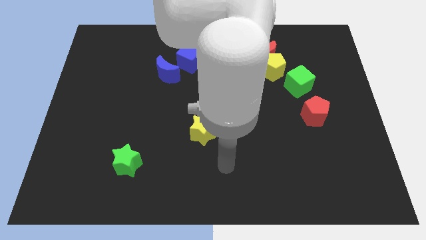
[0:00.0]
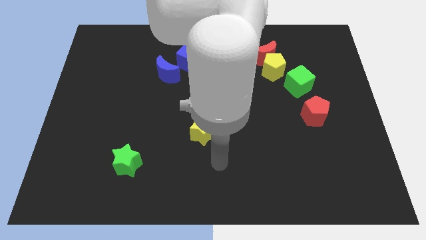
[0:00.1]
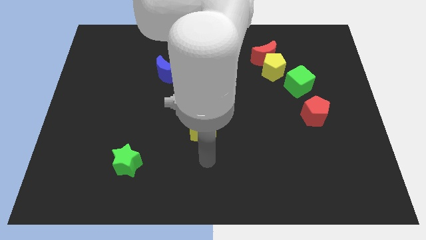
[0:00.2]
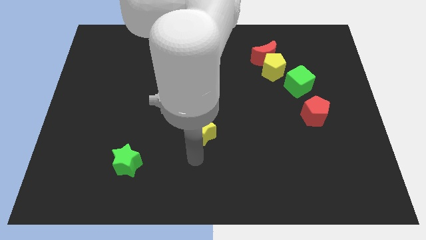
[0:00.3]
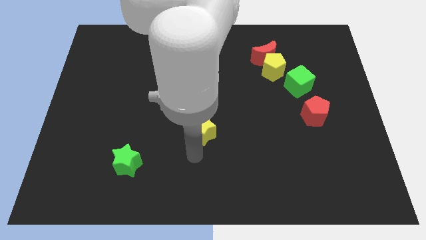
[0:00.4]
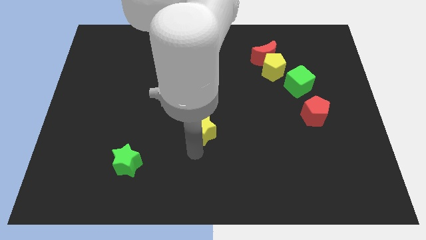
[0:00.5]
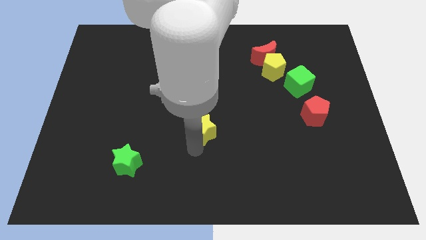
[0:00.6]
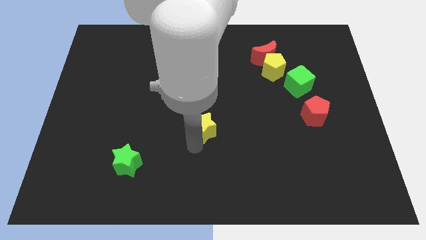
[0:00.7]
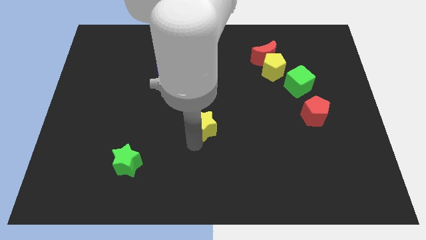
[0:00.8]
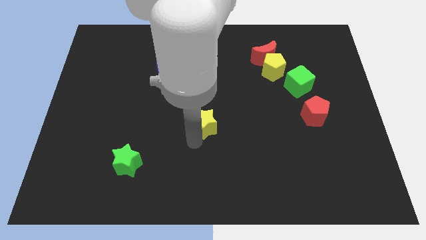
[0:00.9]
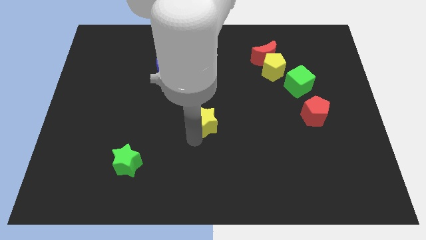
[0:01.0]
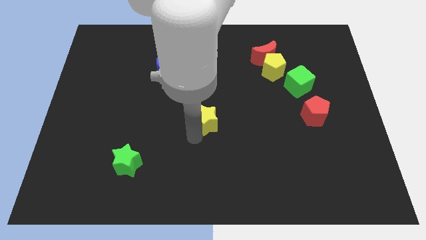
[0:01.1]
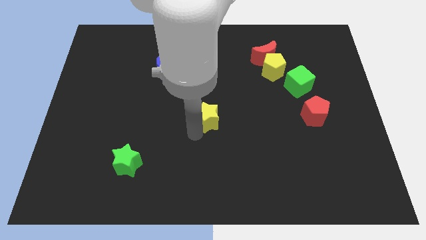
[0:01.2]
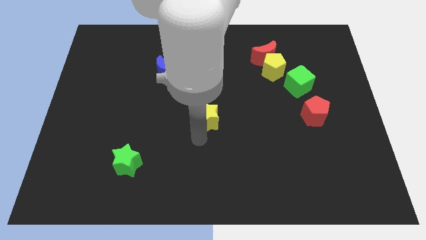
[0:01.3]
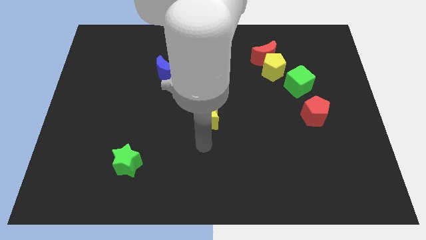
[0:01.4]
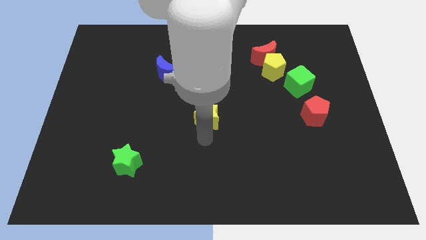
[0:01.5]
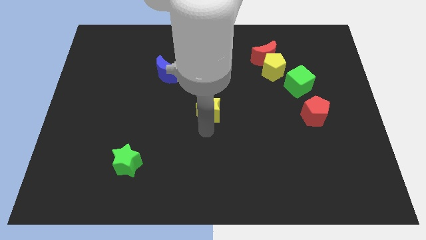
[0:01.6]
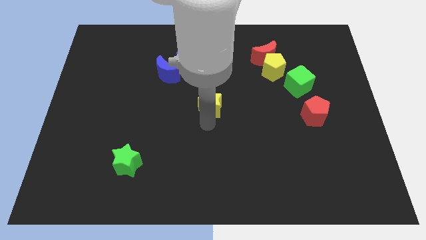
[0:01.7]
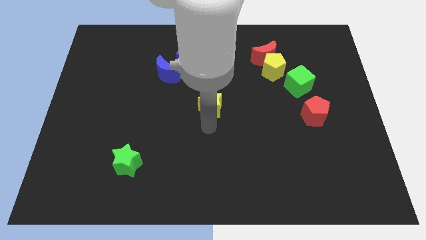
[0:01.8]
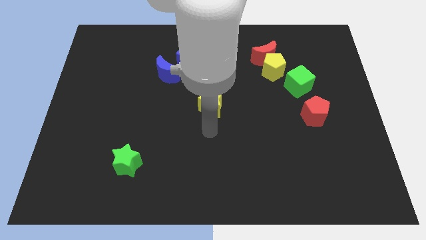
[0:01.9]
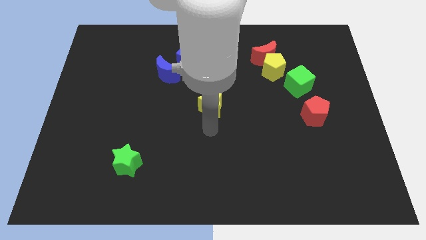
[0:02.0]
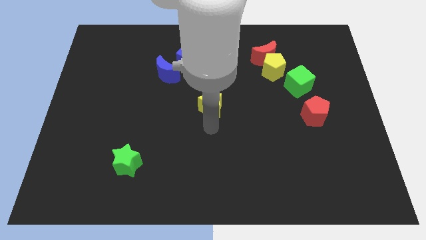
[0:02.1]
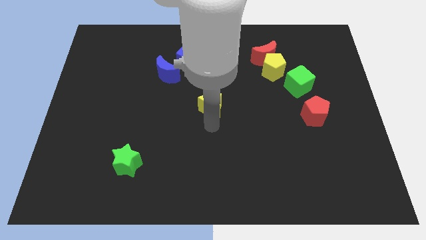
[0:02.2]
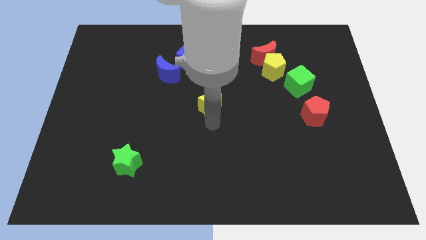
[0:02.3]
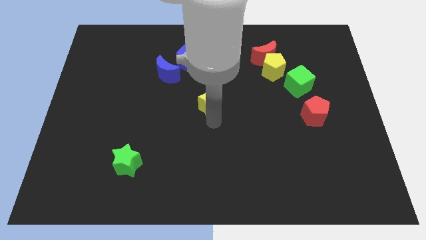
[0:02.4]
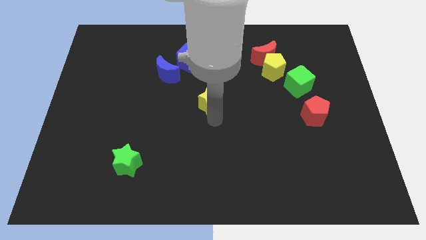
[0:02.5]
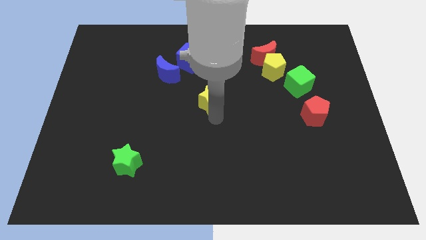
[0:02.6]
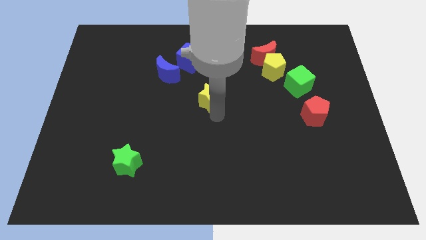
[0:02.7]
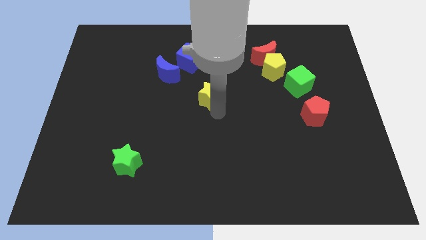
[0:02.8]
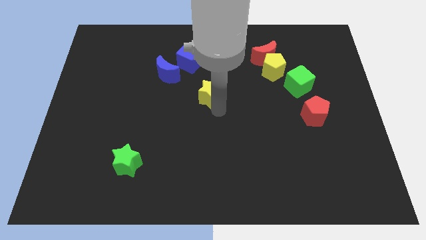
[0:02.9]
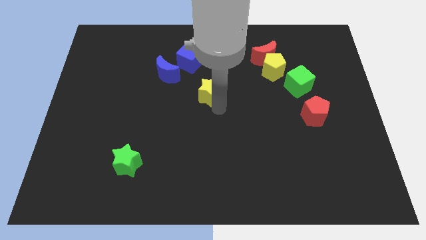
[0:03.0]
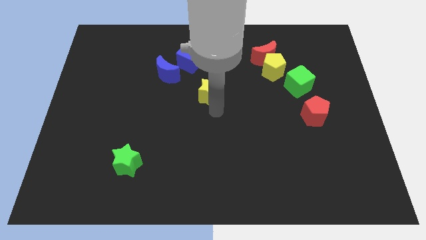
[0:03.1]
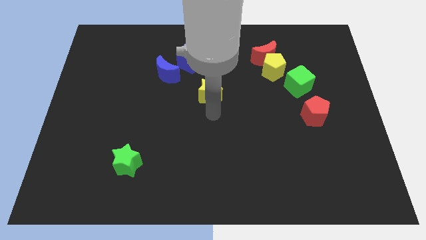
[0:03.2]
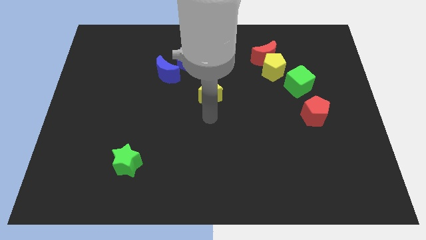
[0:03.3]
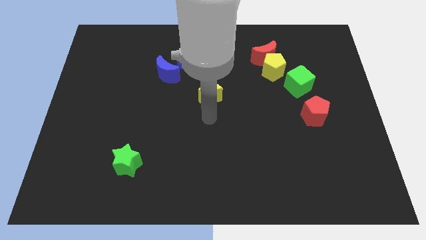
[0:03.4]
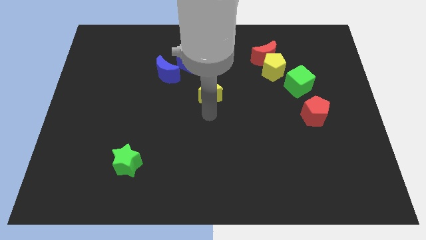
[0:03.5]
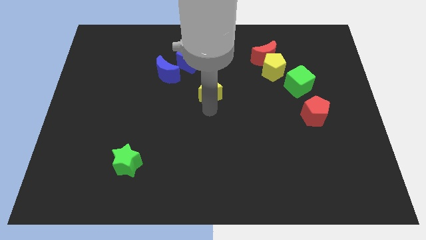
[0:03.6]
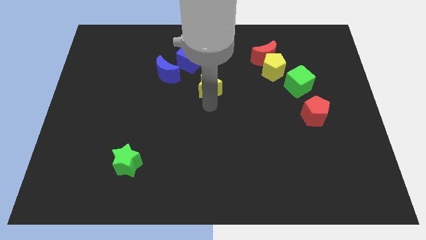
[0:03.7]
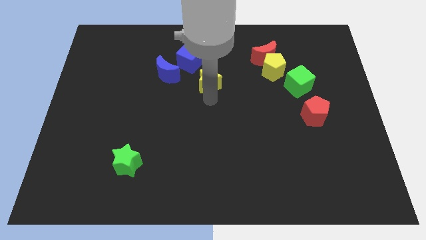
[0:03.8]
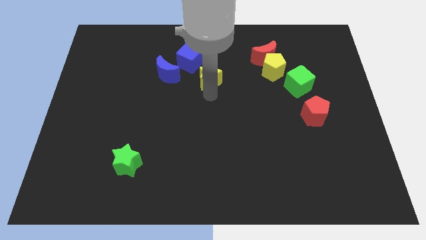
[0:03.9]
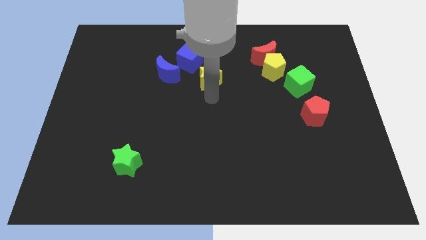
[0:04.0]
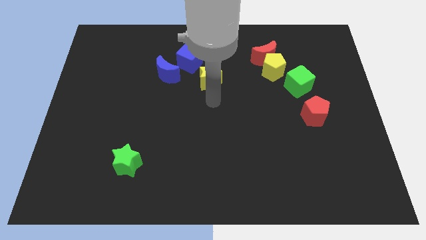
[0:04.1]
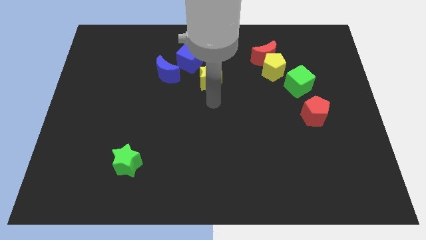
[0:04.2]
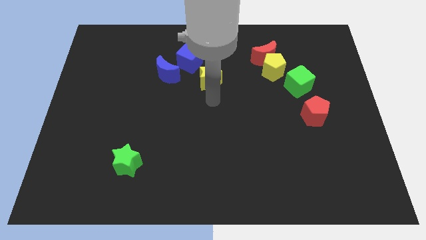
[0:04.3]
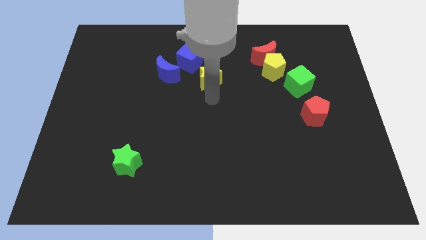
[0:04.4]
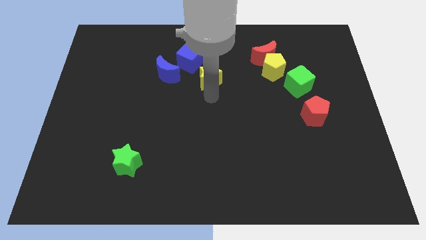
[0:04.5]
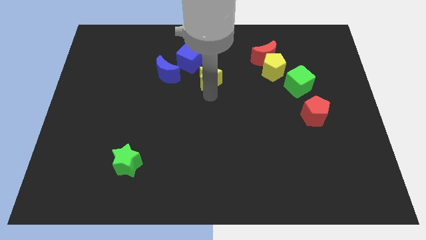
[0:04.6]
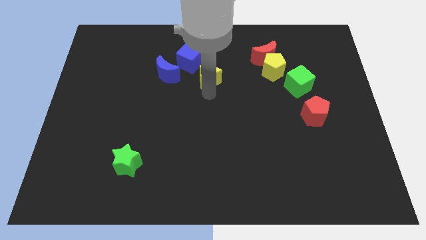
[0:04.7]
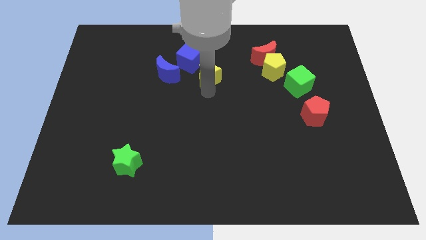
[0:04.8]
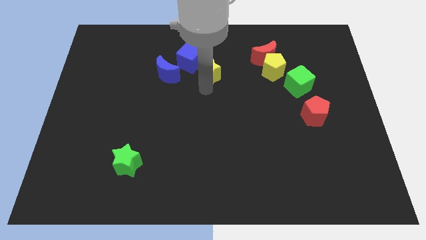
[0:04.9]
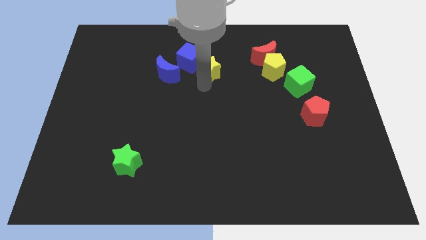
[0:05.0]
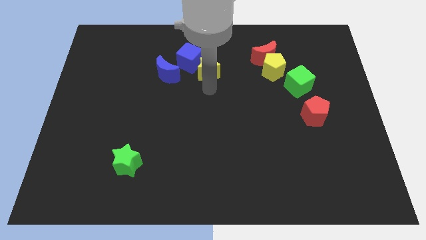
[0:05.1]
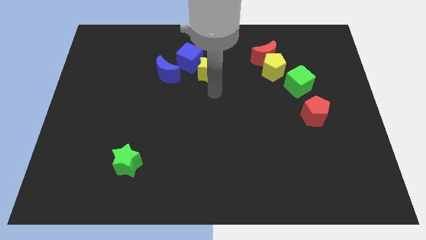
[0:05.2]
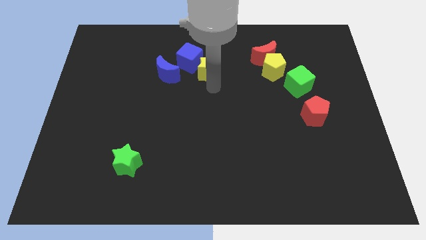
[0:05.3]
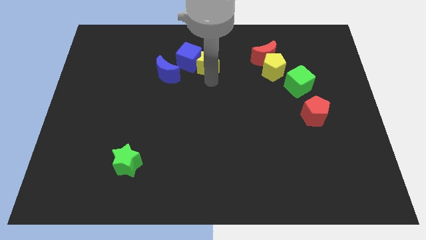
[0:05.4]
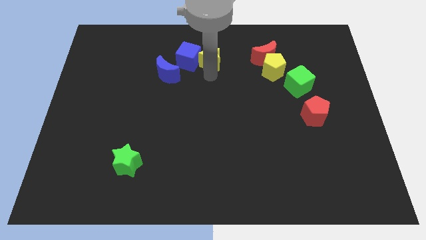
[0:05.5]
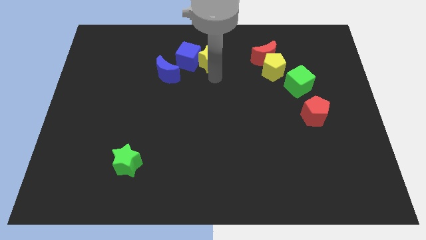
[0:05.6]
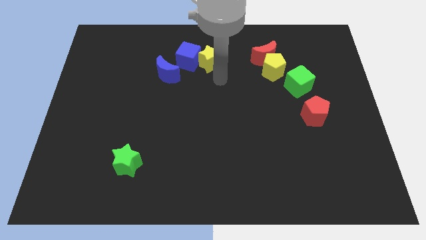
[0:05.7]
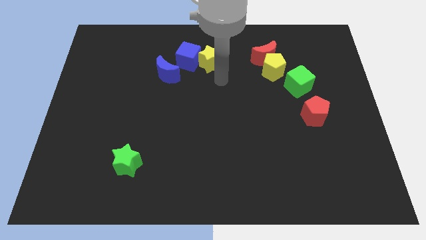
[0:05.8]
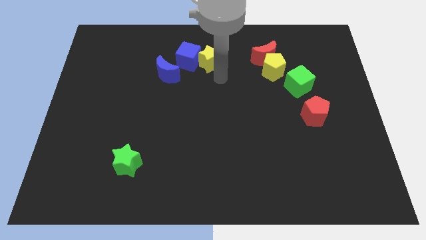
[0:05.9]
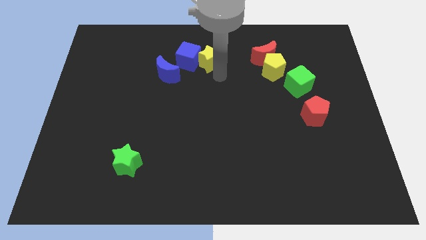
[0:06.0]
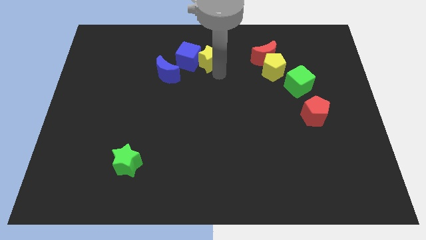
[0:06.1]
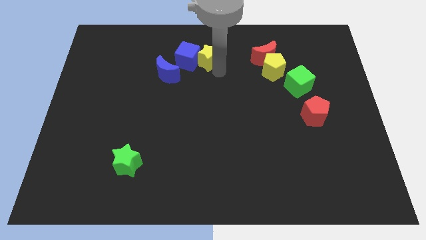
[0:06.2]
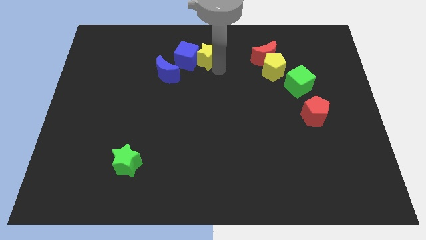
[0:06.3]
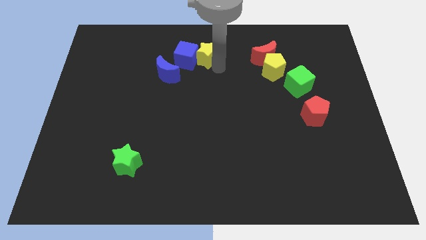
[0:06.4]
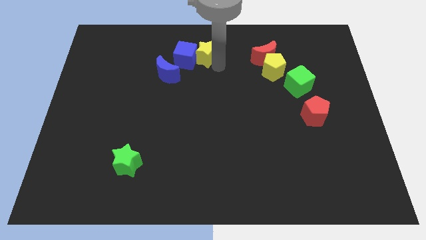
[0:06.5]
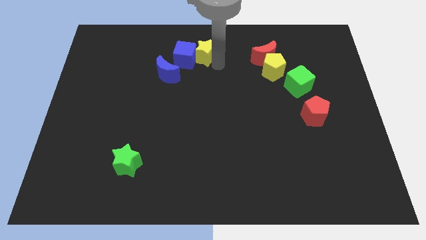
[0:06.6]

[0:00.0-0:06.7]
push the yellow star to the top

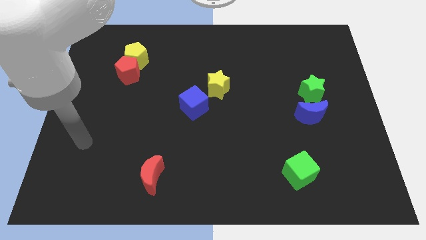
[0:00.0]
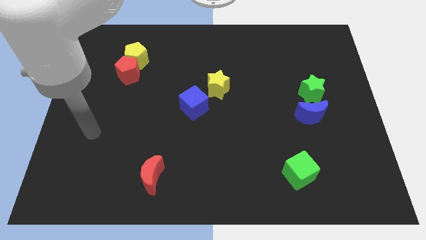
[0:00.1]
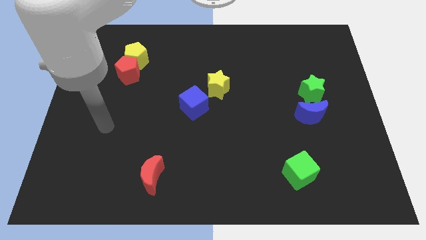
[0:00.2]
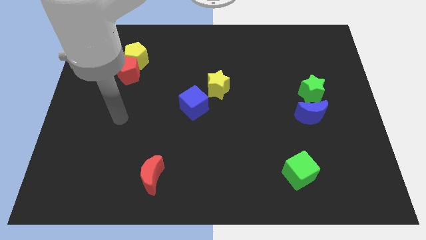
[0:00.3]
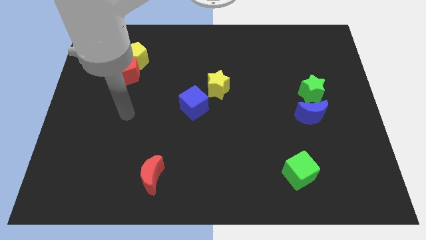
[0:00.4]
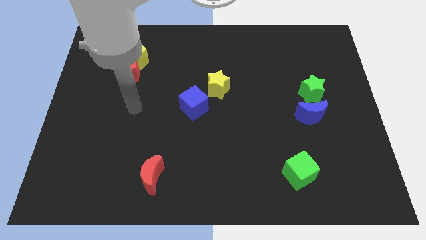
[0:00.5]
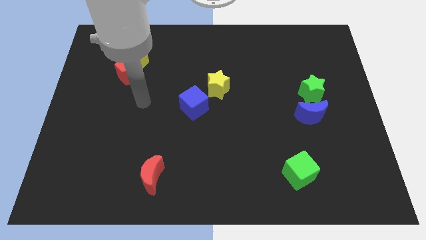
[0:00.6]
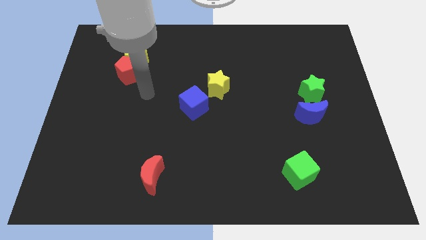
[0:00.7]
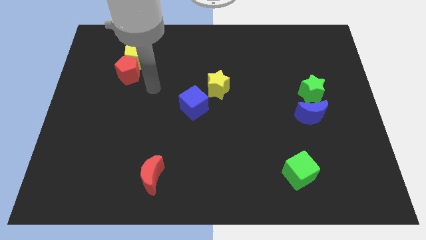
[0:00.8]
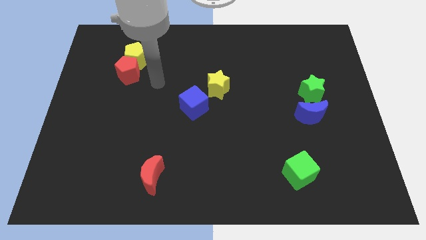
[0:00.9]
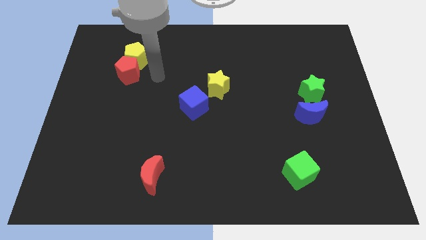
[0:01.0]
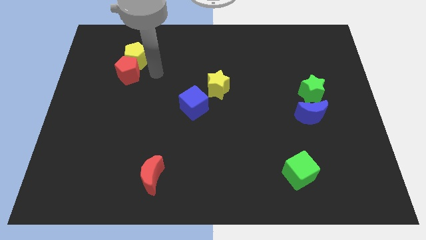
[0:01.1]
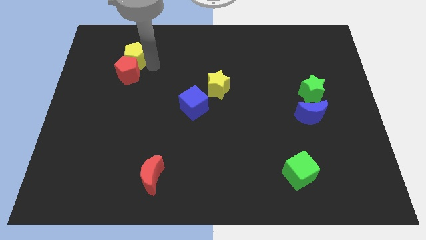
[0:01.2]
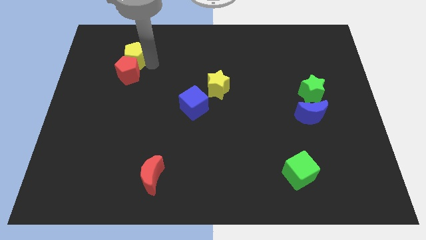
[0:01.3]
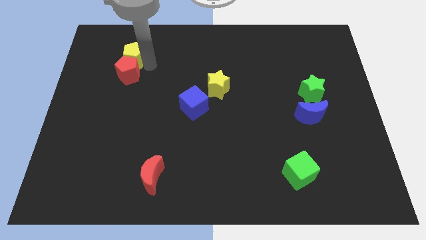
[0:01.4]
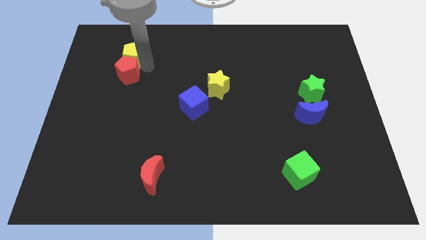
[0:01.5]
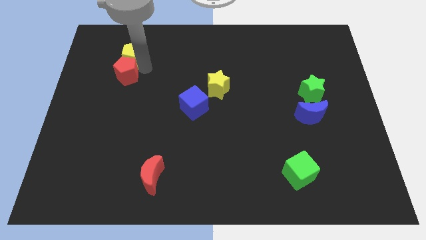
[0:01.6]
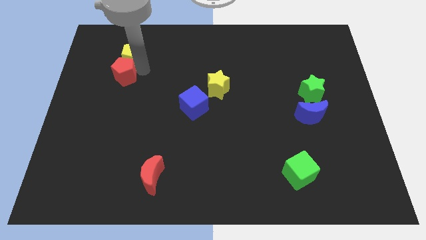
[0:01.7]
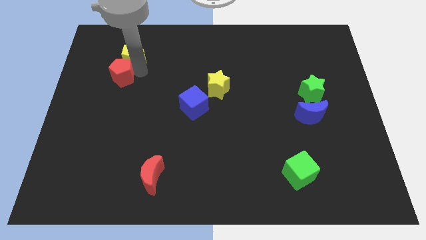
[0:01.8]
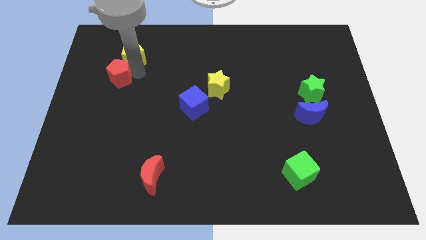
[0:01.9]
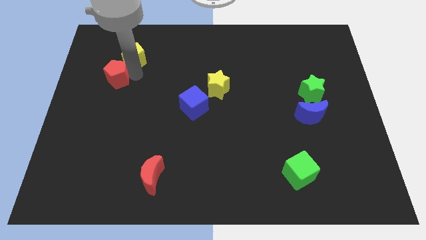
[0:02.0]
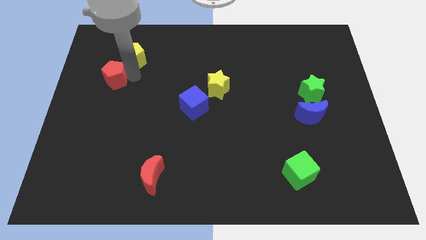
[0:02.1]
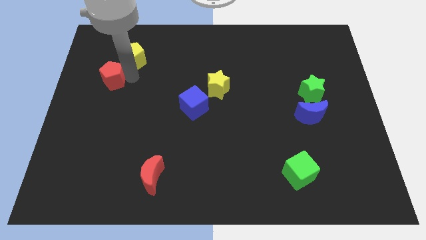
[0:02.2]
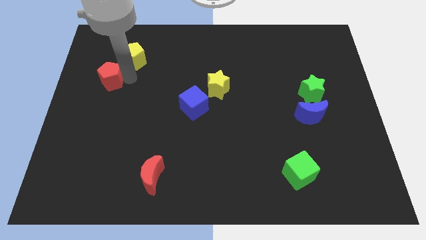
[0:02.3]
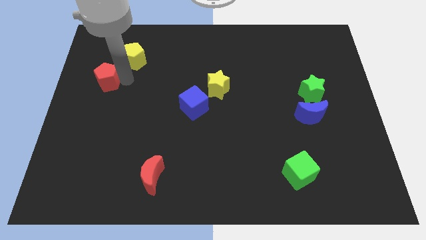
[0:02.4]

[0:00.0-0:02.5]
slide the red pentagon to the left side
